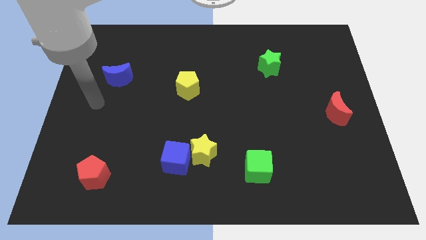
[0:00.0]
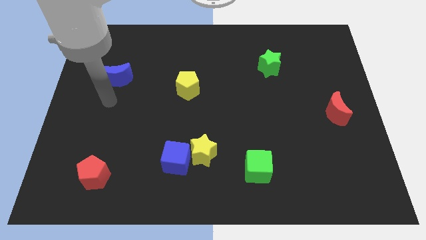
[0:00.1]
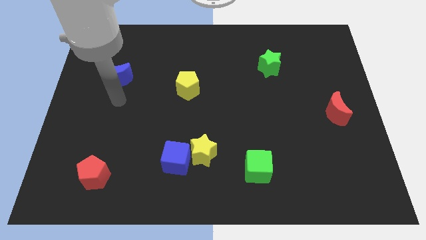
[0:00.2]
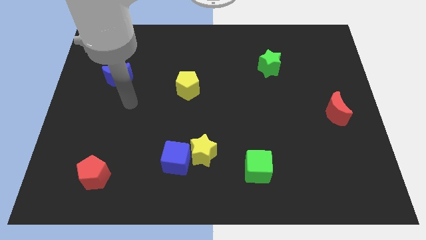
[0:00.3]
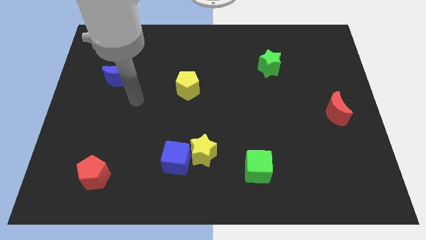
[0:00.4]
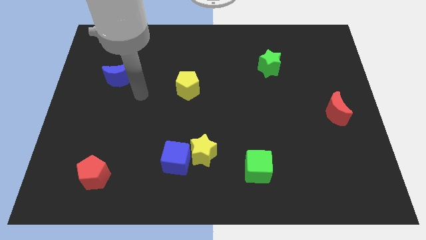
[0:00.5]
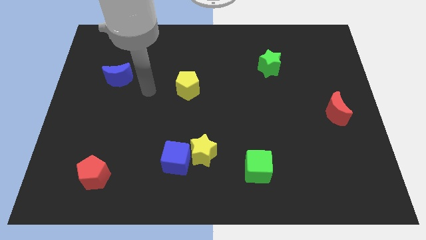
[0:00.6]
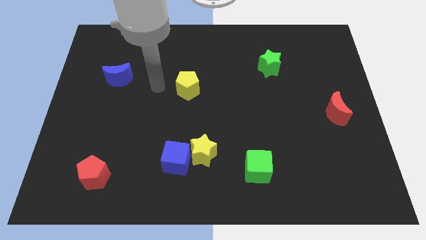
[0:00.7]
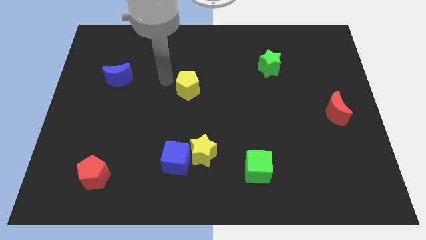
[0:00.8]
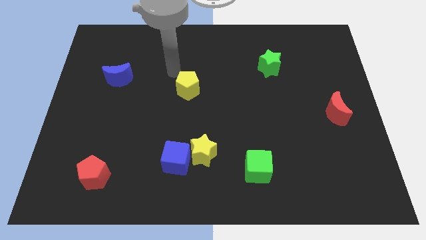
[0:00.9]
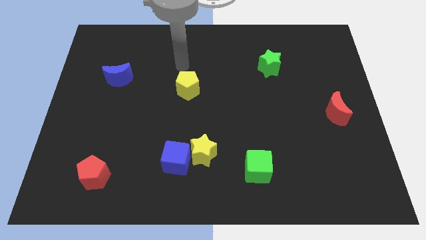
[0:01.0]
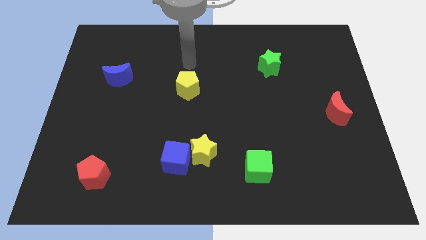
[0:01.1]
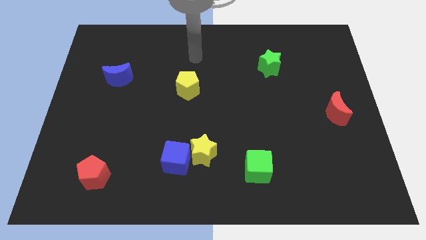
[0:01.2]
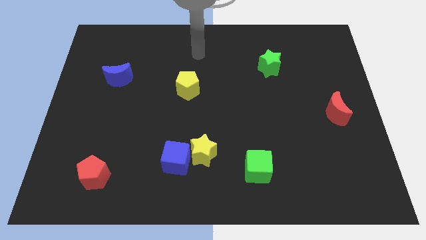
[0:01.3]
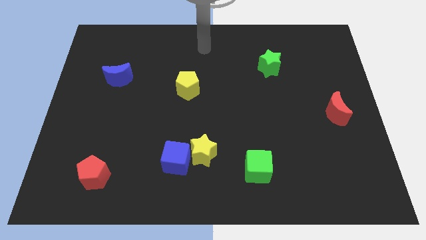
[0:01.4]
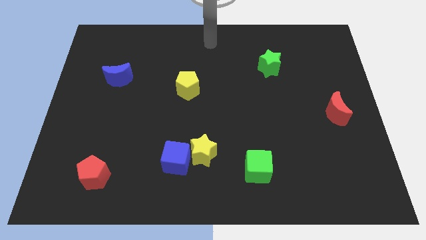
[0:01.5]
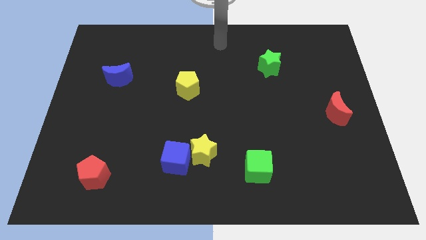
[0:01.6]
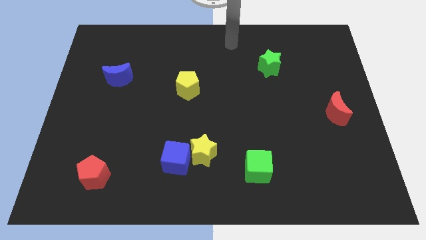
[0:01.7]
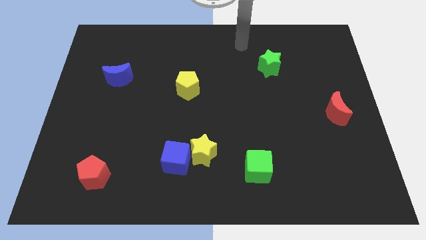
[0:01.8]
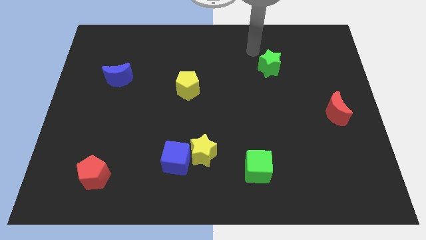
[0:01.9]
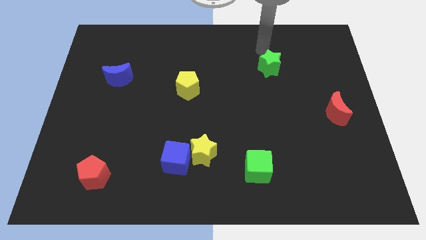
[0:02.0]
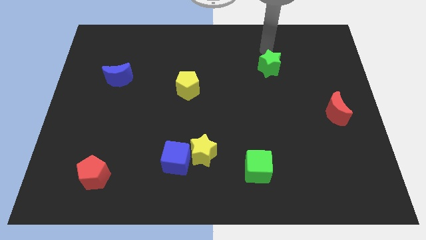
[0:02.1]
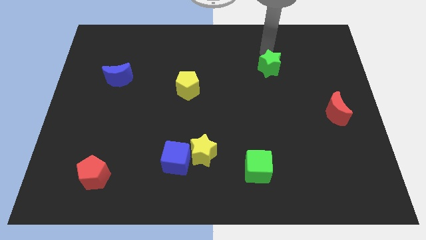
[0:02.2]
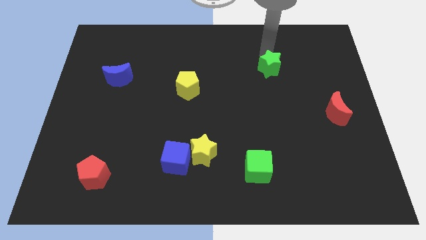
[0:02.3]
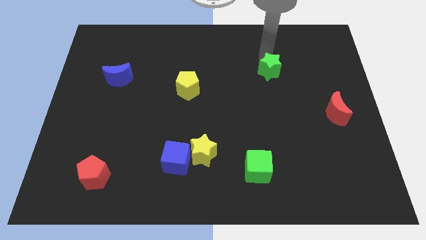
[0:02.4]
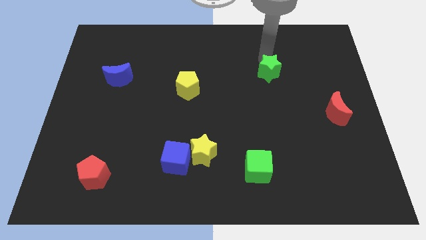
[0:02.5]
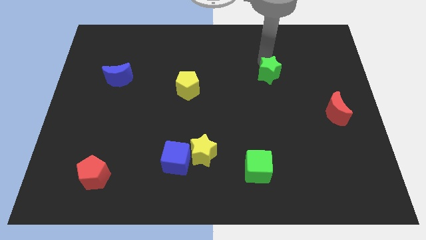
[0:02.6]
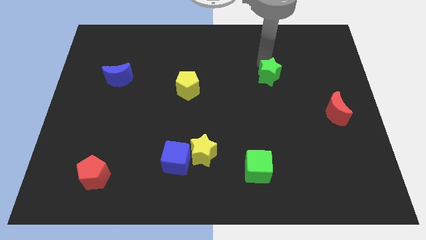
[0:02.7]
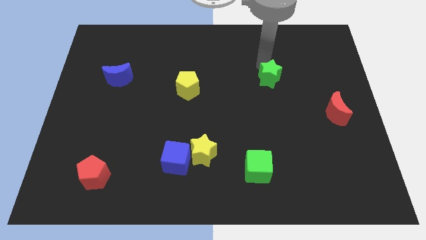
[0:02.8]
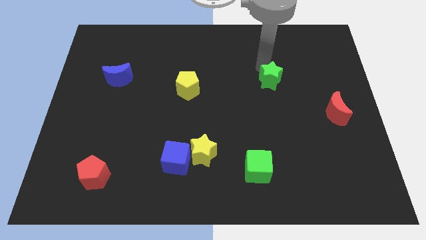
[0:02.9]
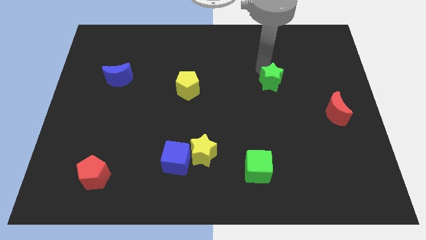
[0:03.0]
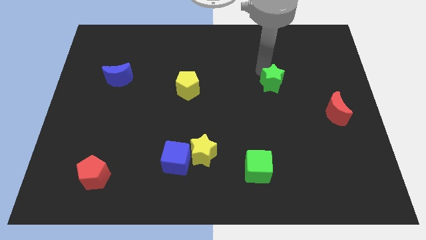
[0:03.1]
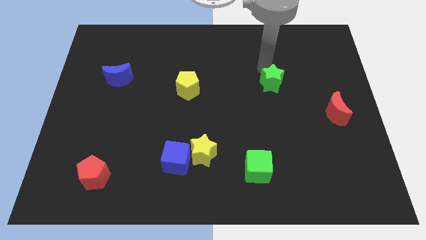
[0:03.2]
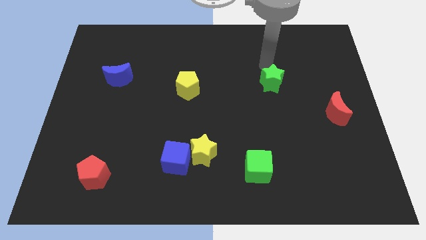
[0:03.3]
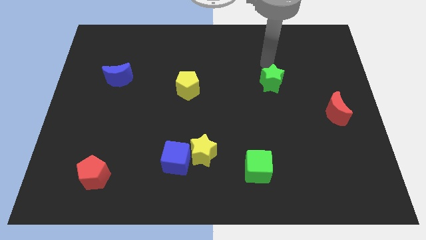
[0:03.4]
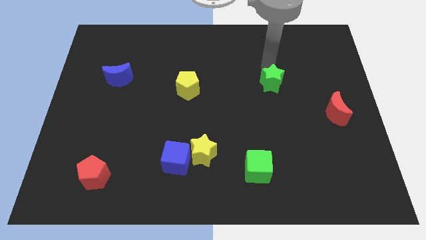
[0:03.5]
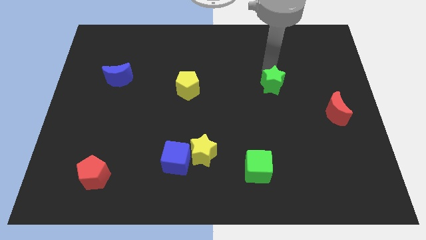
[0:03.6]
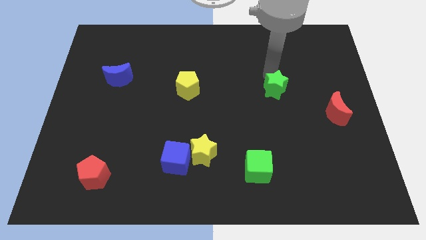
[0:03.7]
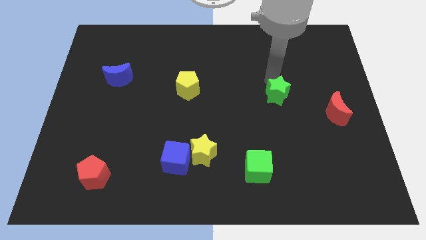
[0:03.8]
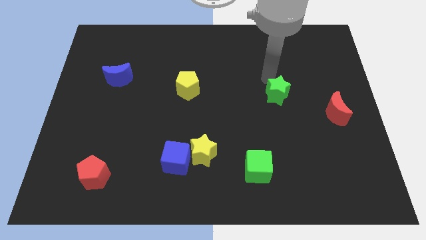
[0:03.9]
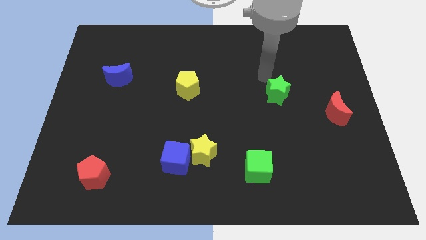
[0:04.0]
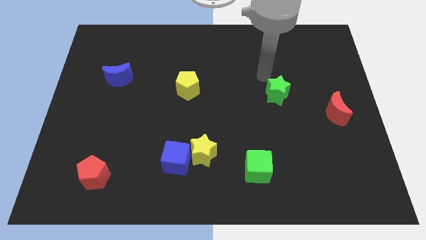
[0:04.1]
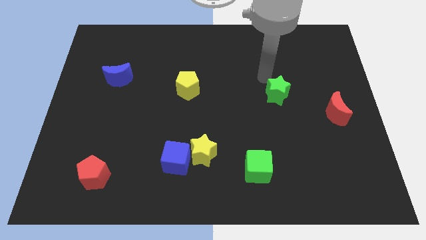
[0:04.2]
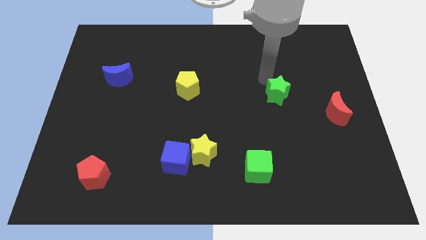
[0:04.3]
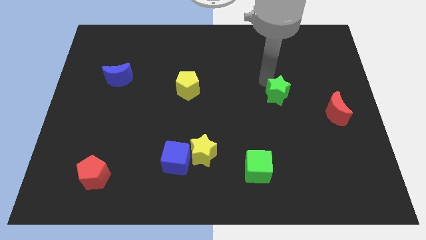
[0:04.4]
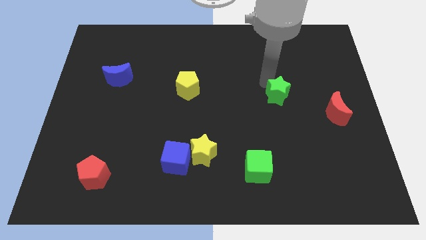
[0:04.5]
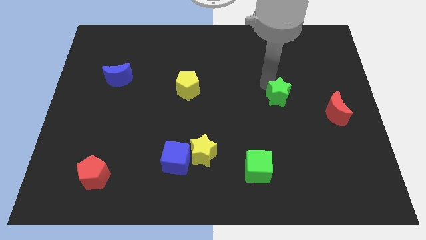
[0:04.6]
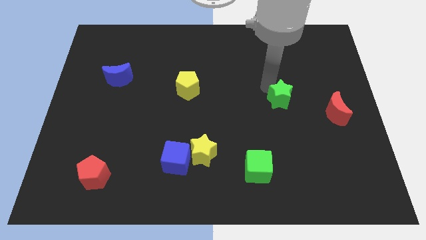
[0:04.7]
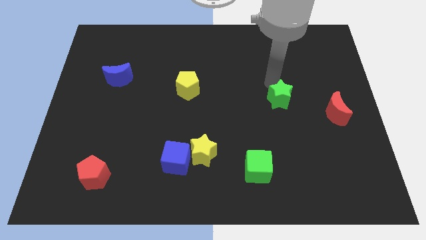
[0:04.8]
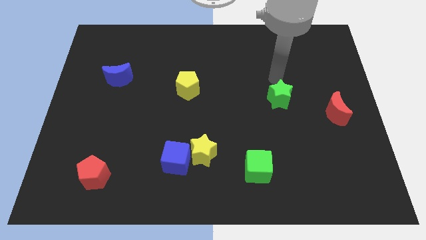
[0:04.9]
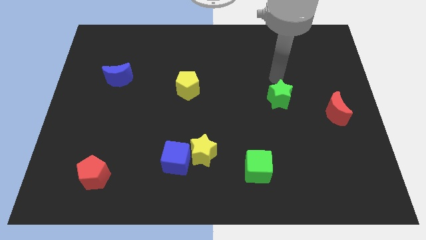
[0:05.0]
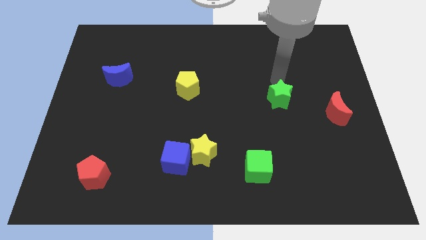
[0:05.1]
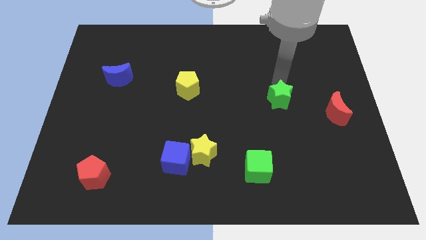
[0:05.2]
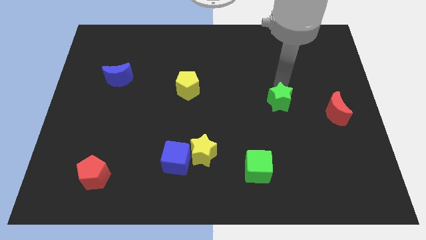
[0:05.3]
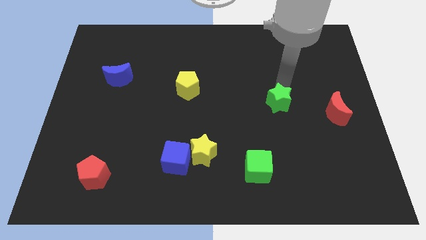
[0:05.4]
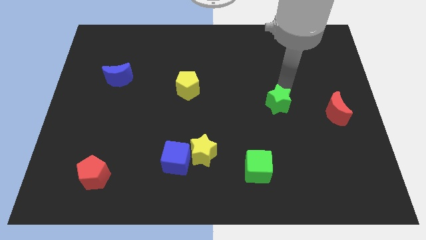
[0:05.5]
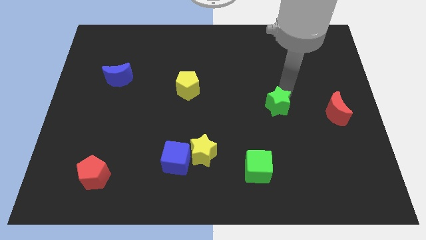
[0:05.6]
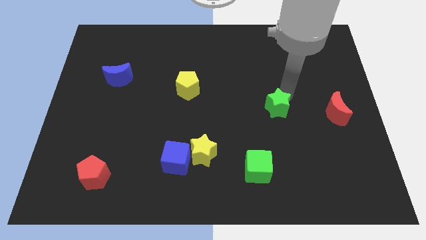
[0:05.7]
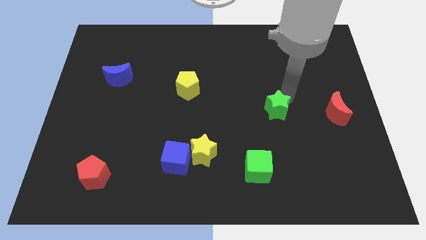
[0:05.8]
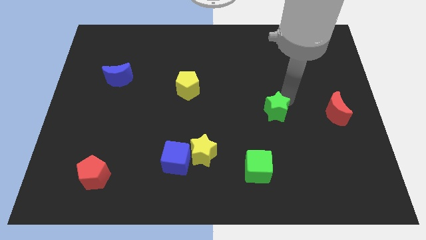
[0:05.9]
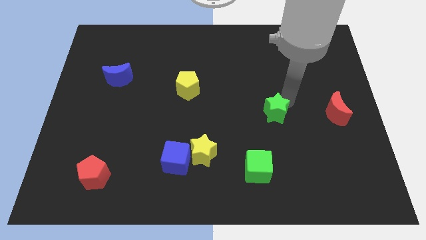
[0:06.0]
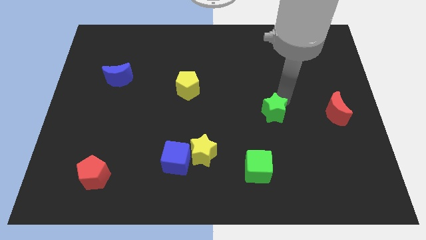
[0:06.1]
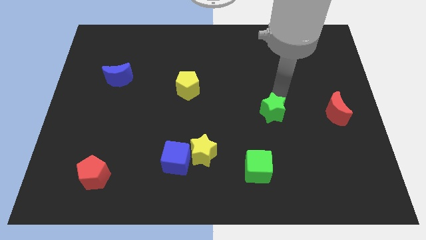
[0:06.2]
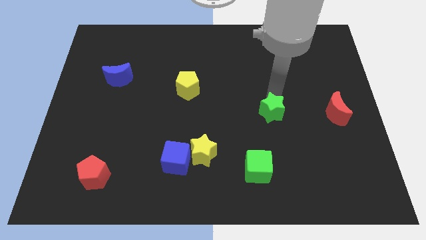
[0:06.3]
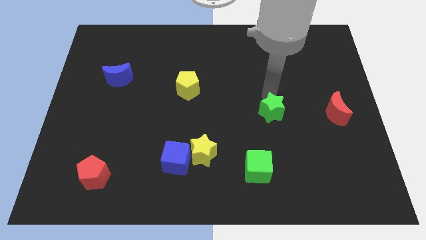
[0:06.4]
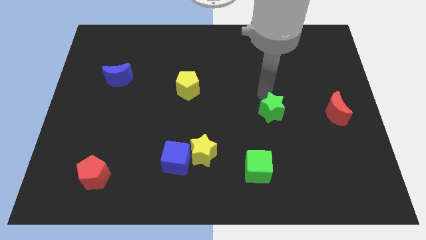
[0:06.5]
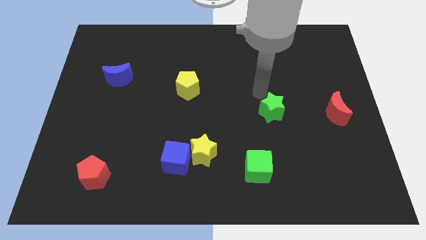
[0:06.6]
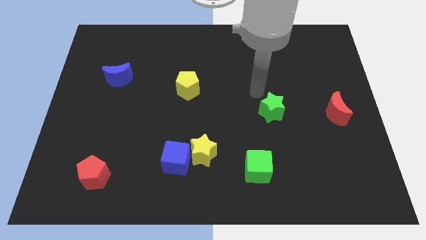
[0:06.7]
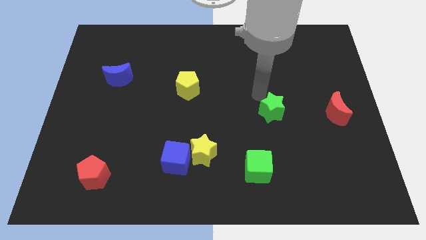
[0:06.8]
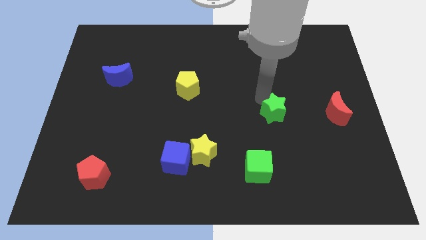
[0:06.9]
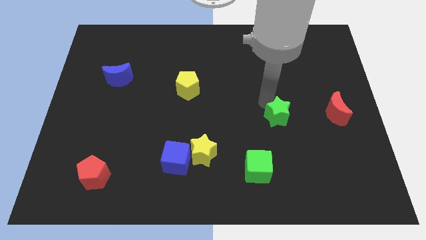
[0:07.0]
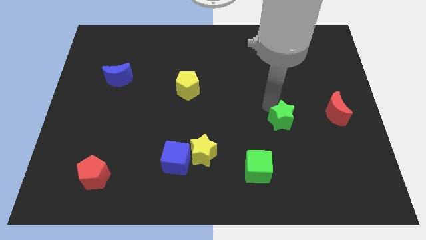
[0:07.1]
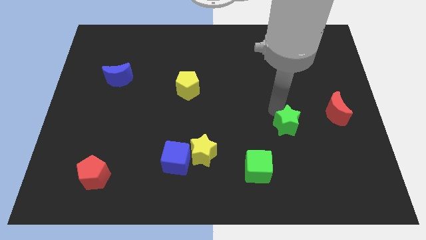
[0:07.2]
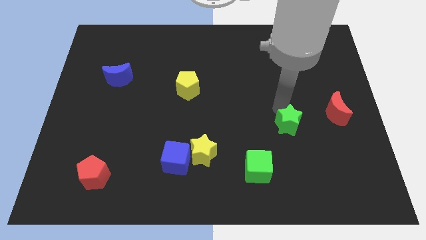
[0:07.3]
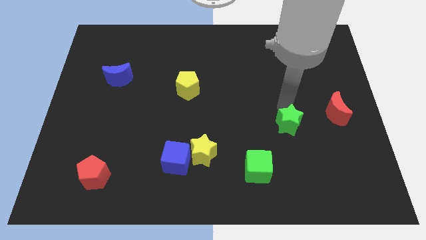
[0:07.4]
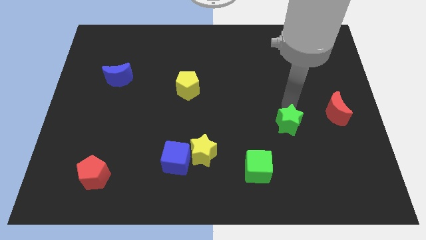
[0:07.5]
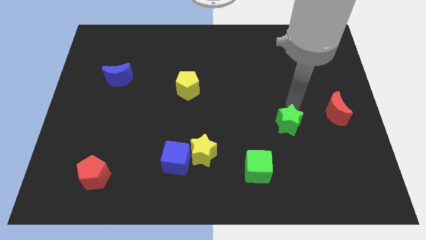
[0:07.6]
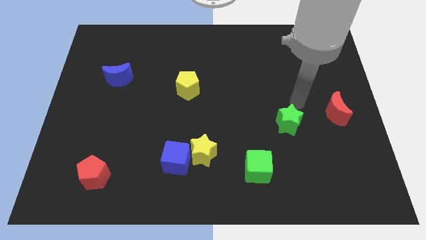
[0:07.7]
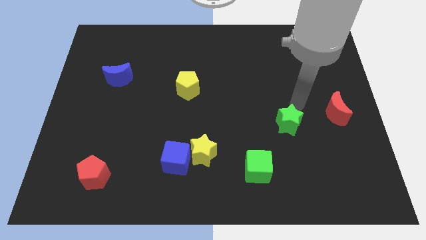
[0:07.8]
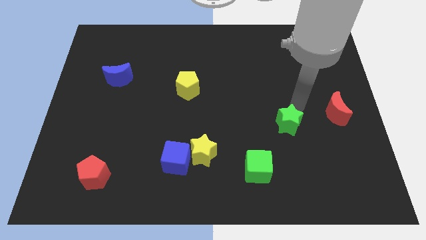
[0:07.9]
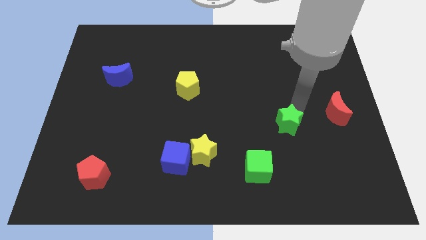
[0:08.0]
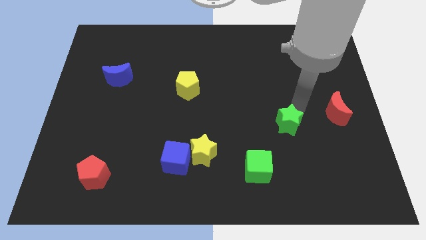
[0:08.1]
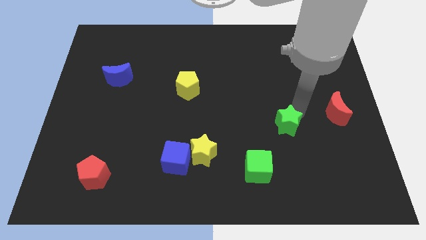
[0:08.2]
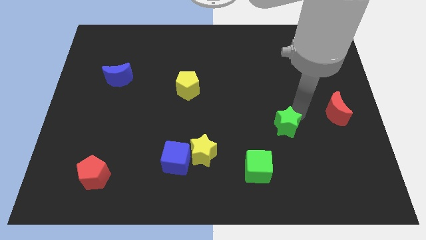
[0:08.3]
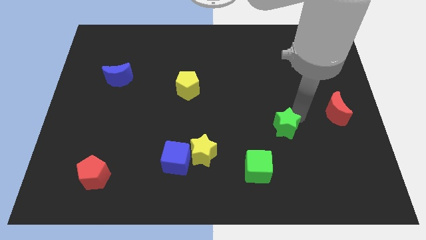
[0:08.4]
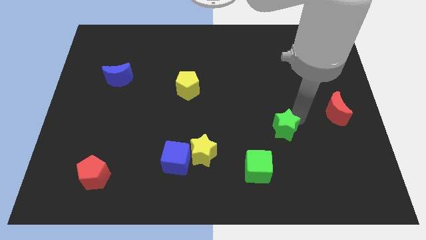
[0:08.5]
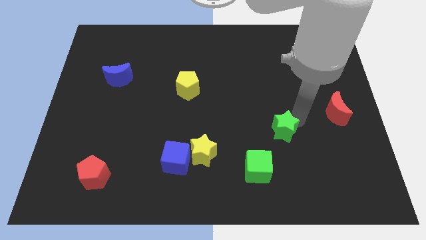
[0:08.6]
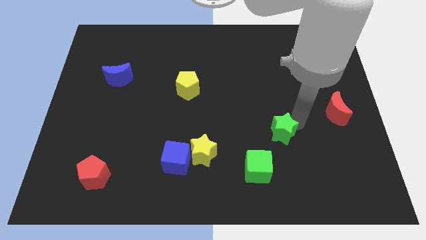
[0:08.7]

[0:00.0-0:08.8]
slide the green star down
